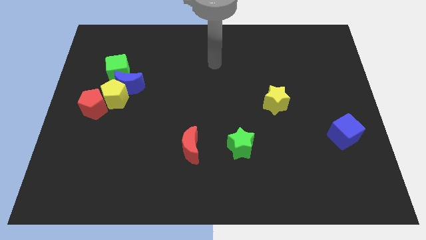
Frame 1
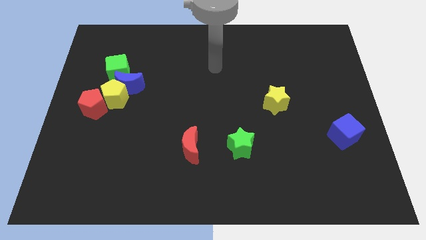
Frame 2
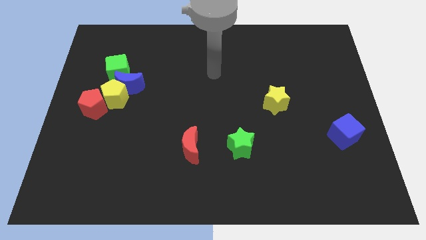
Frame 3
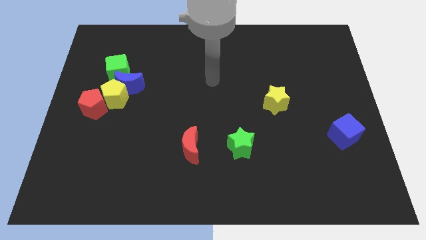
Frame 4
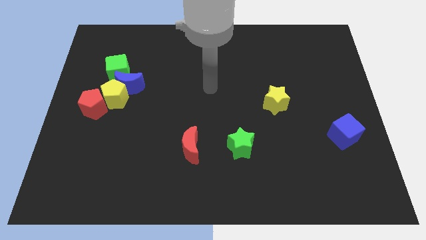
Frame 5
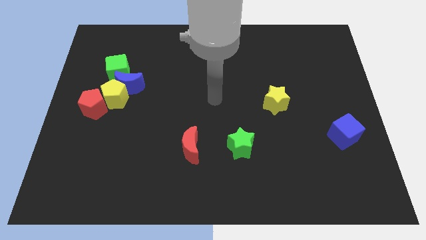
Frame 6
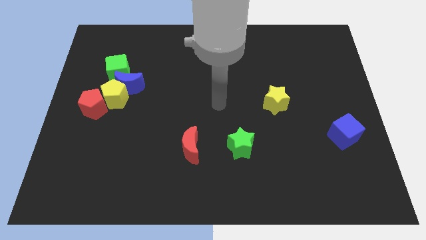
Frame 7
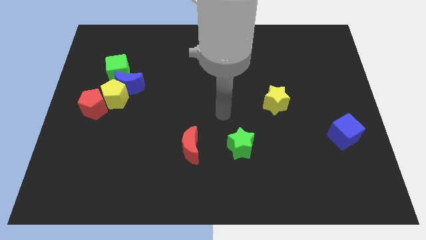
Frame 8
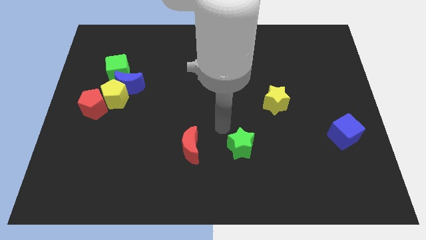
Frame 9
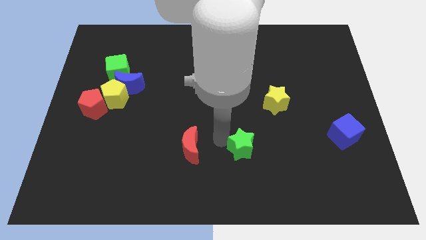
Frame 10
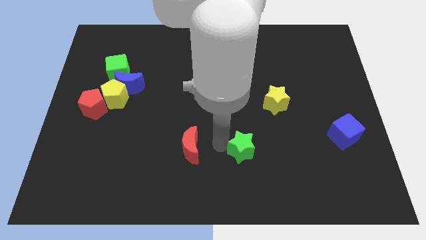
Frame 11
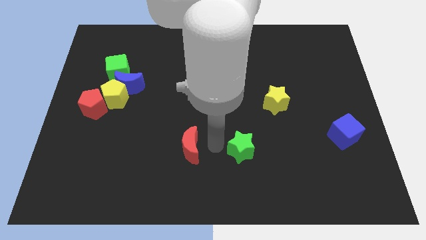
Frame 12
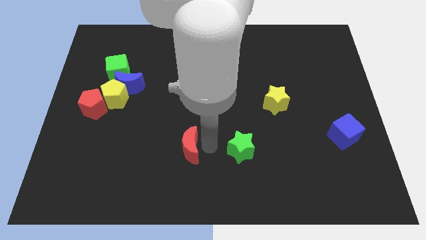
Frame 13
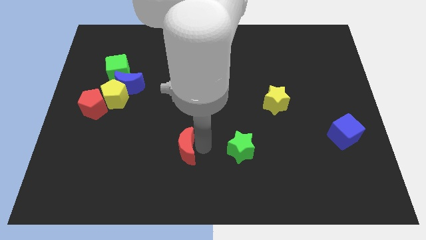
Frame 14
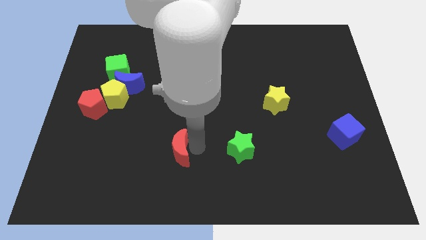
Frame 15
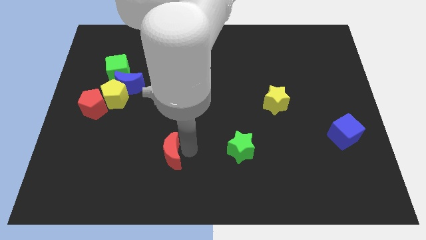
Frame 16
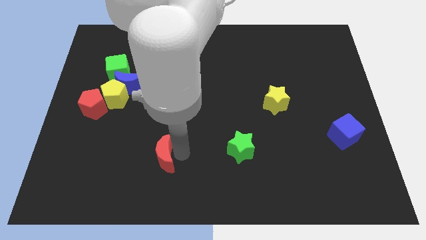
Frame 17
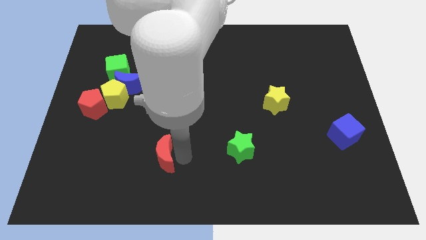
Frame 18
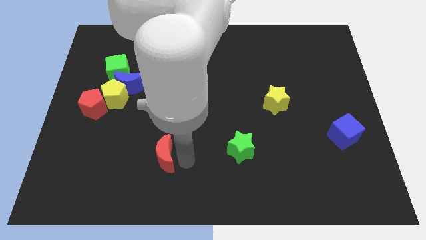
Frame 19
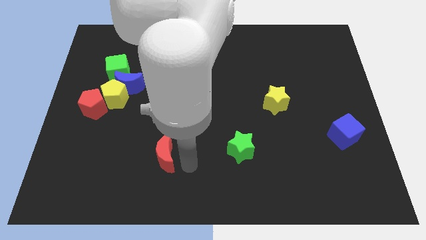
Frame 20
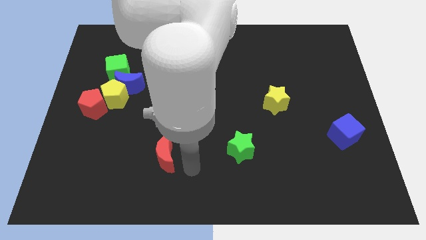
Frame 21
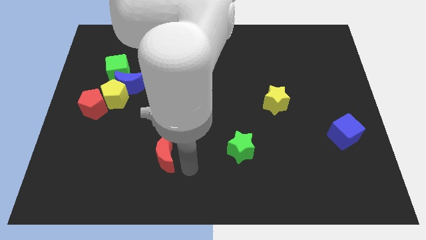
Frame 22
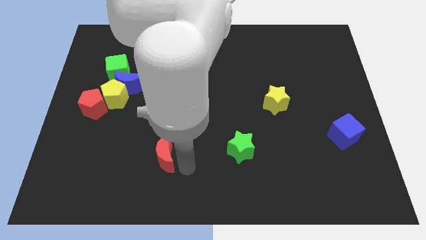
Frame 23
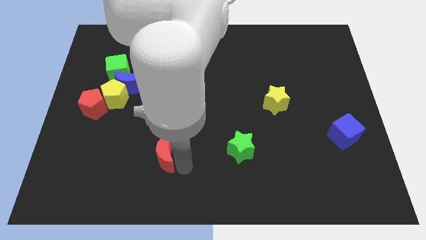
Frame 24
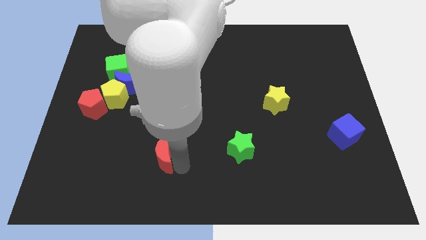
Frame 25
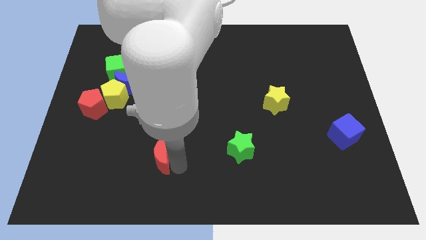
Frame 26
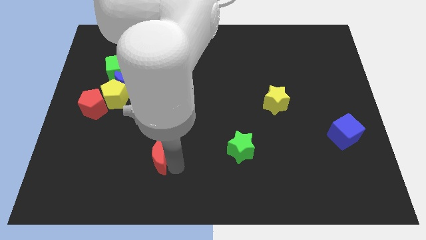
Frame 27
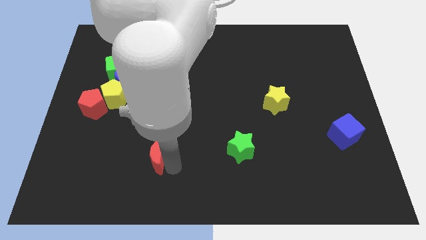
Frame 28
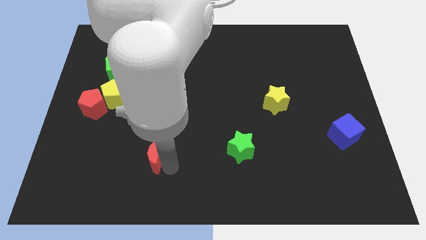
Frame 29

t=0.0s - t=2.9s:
push the red moon a little to the left

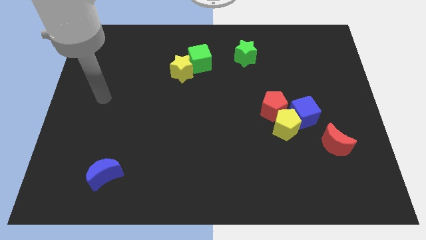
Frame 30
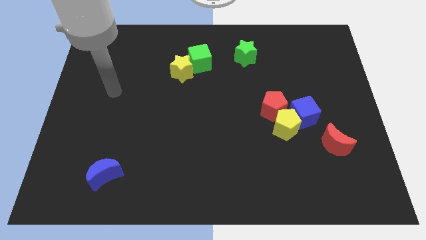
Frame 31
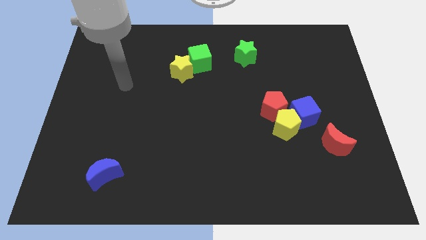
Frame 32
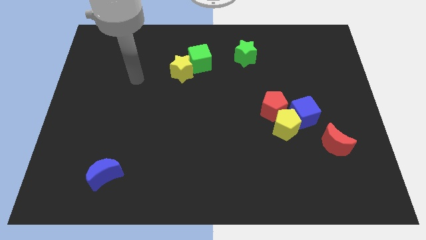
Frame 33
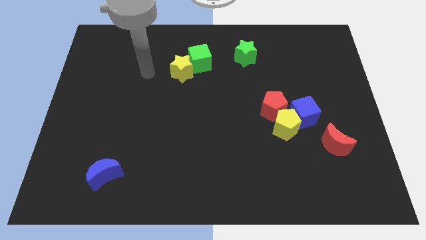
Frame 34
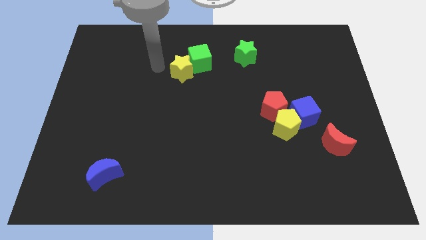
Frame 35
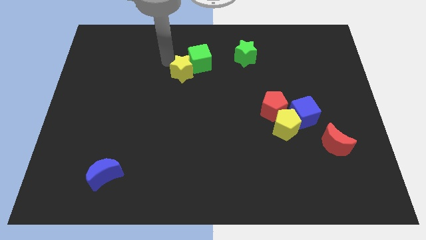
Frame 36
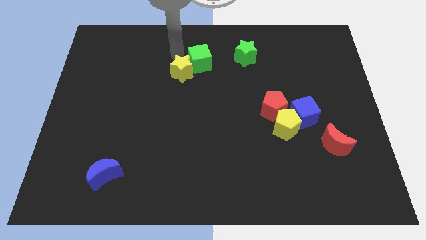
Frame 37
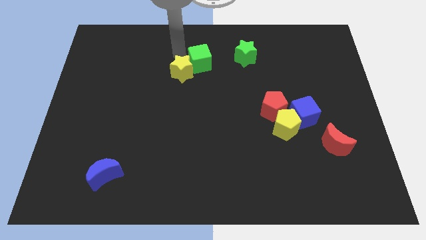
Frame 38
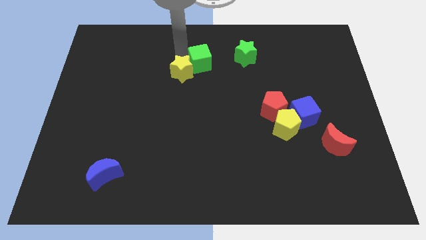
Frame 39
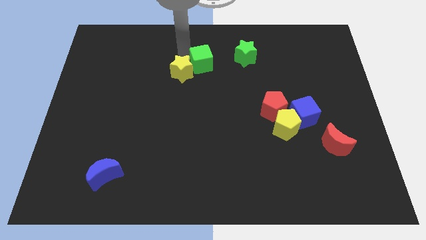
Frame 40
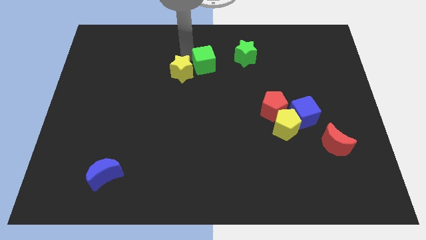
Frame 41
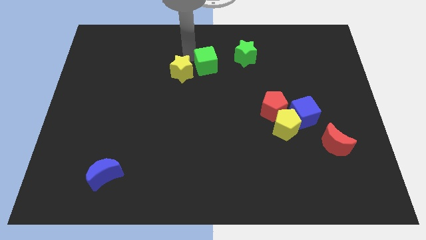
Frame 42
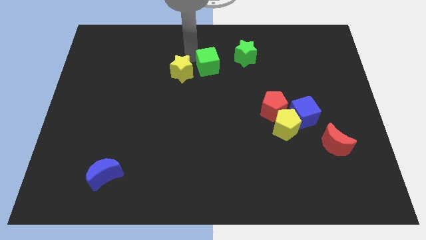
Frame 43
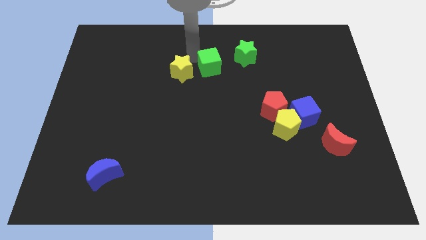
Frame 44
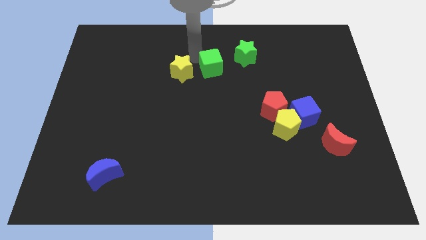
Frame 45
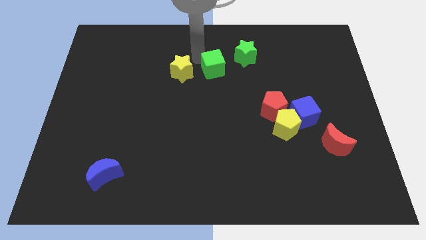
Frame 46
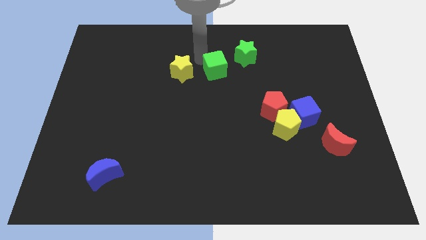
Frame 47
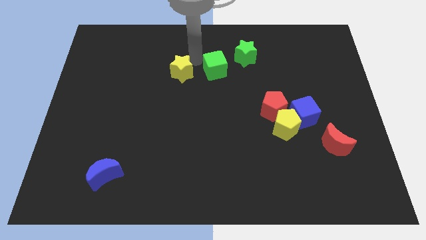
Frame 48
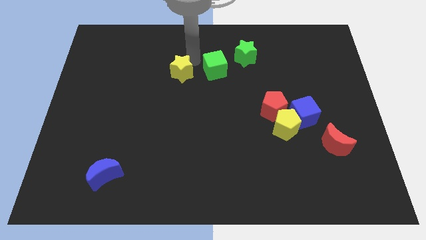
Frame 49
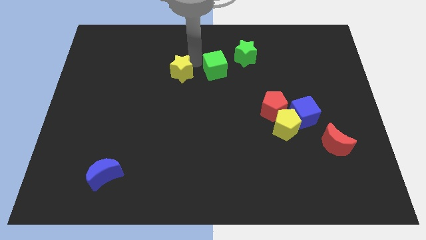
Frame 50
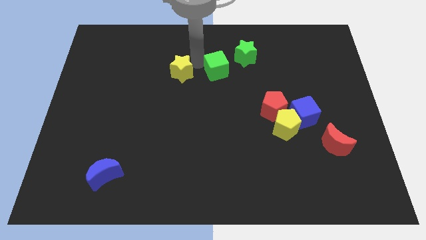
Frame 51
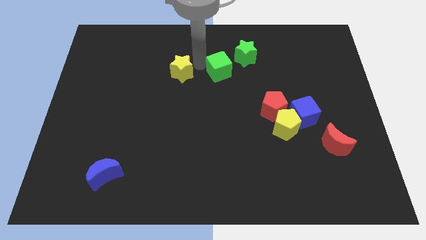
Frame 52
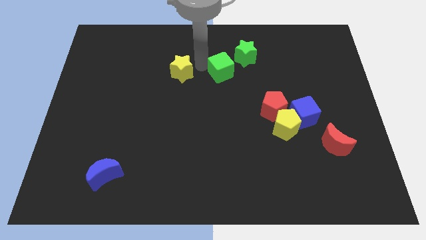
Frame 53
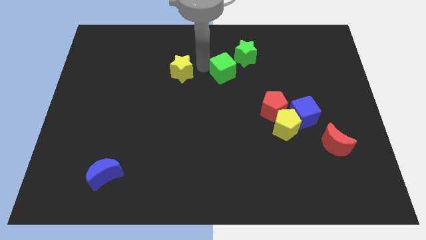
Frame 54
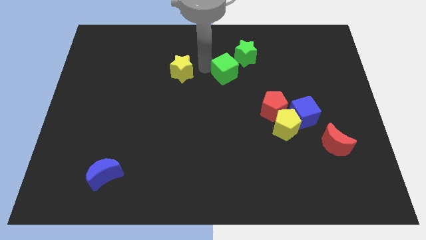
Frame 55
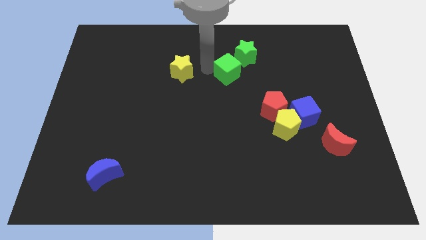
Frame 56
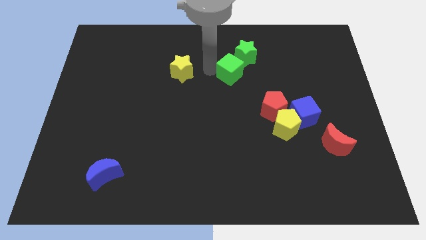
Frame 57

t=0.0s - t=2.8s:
push the green cube slightly to the right

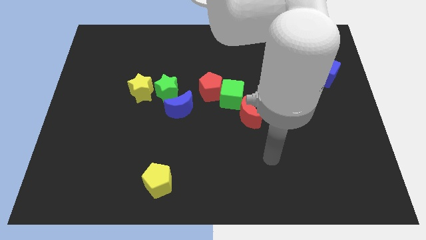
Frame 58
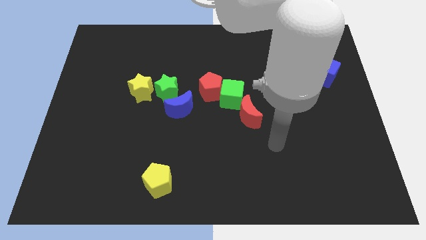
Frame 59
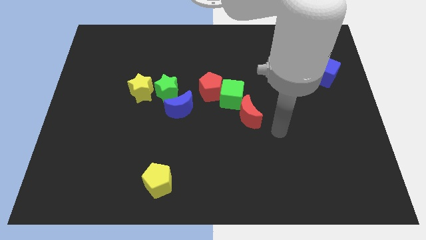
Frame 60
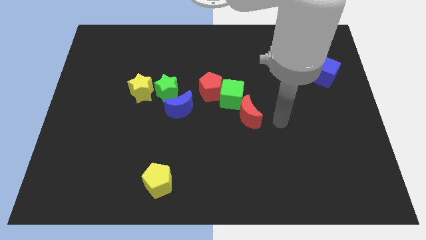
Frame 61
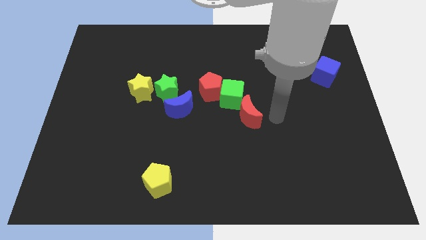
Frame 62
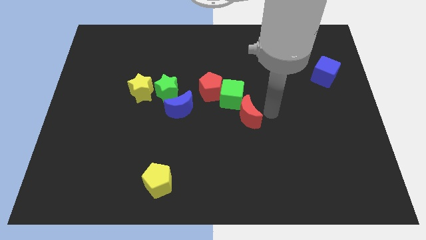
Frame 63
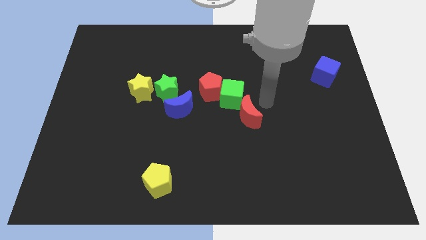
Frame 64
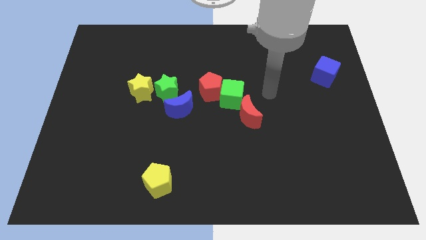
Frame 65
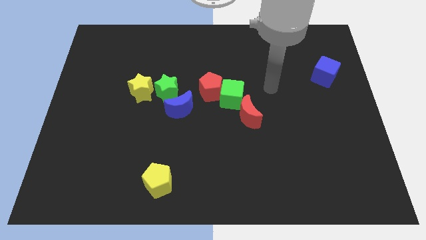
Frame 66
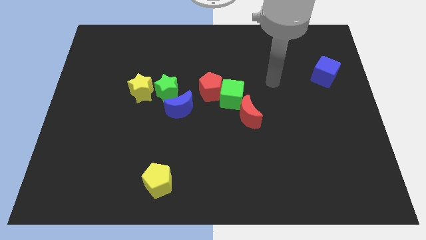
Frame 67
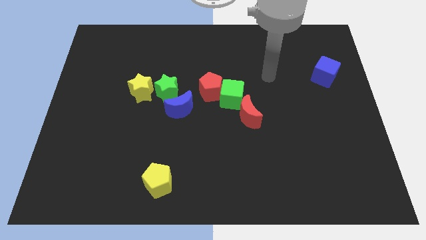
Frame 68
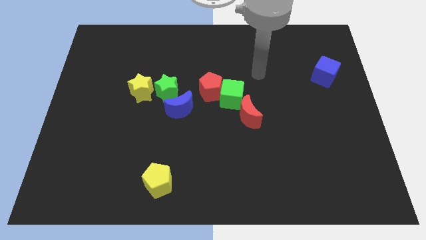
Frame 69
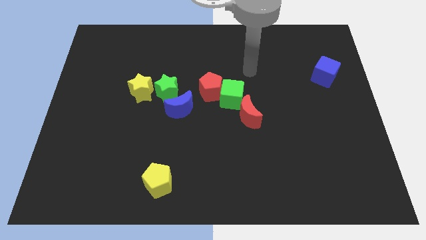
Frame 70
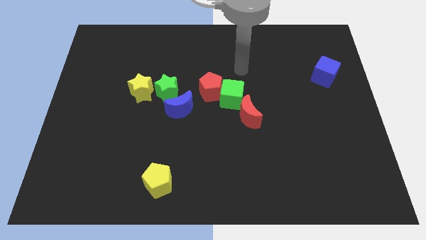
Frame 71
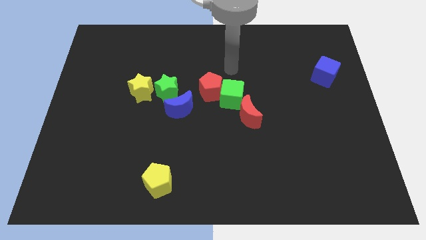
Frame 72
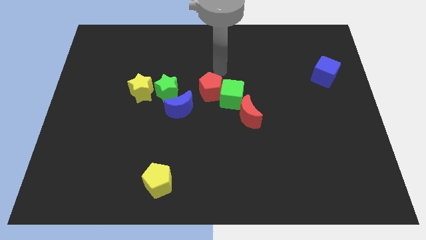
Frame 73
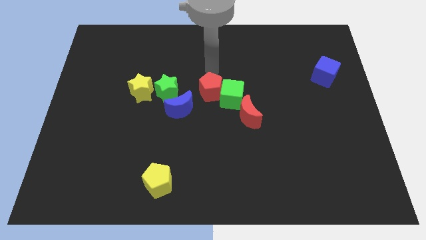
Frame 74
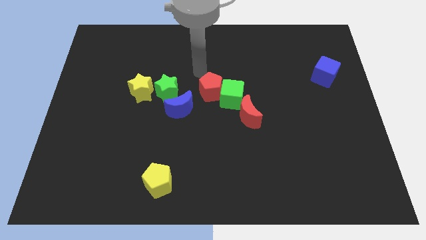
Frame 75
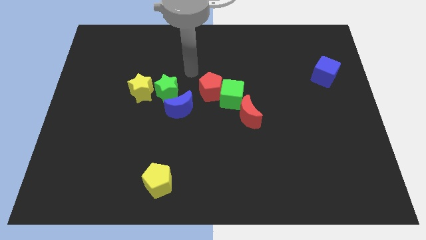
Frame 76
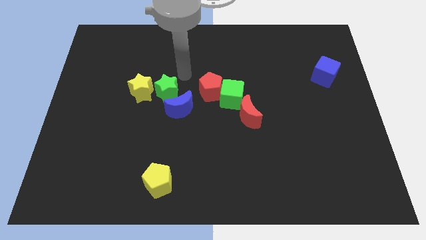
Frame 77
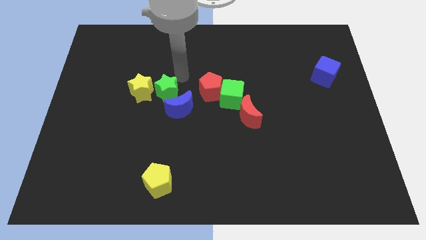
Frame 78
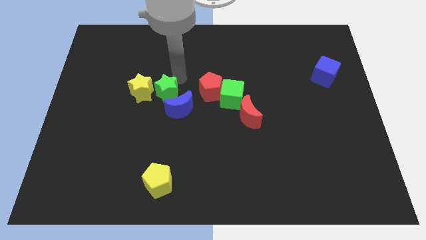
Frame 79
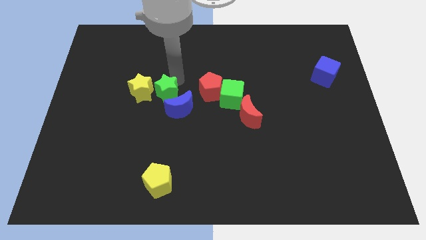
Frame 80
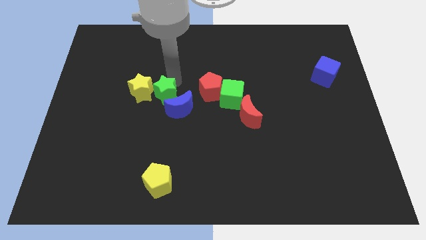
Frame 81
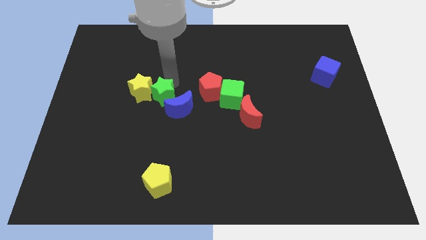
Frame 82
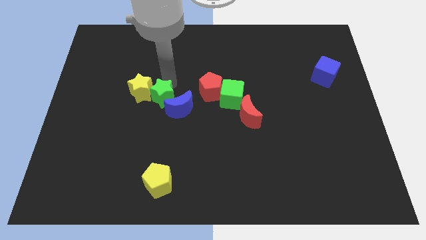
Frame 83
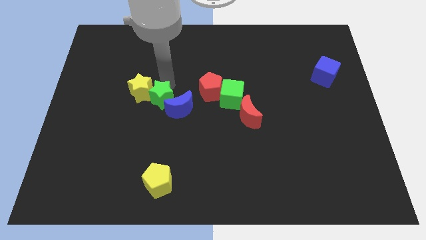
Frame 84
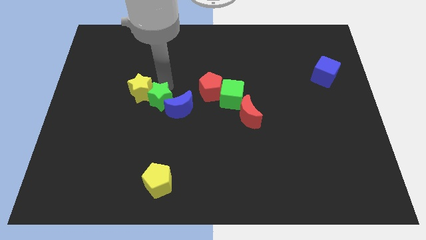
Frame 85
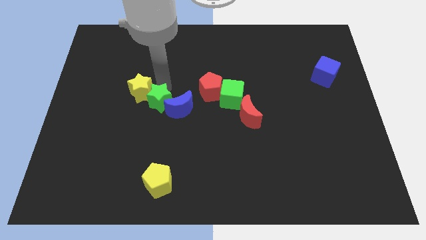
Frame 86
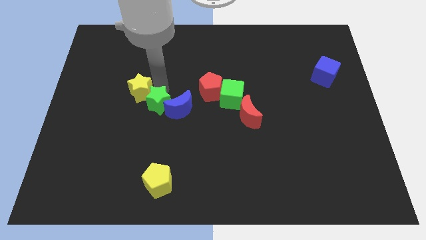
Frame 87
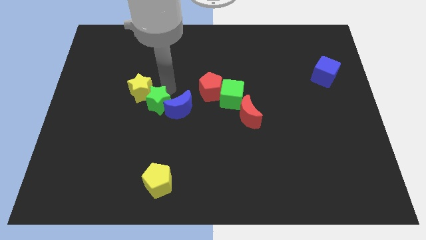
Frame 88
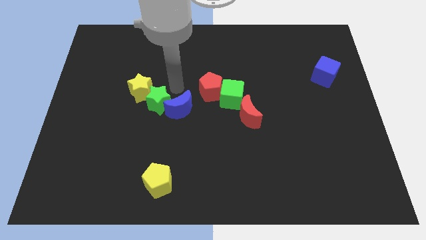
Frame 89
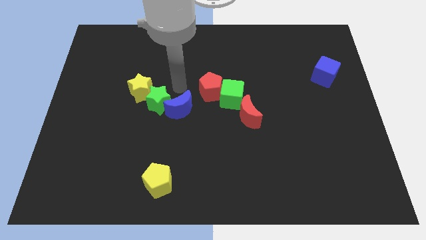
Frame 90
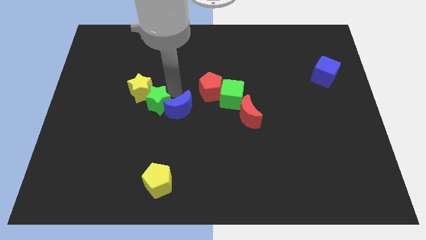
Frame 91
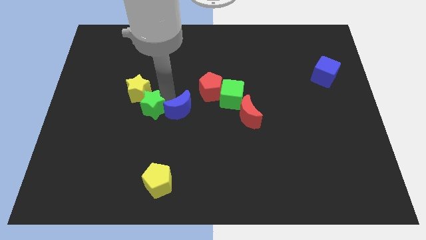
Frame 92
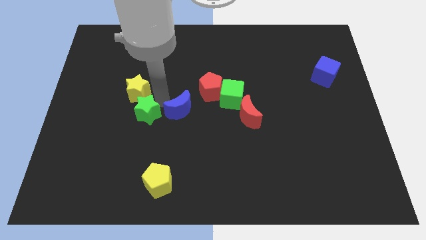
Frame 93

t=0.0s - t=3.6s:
slide the green star downwards and then left a little
